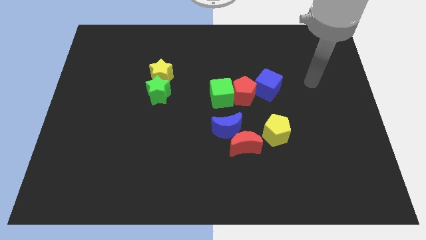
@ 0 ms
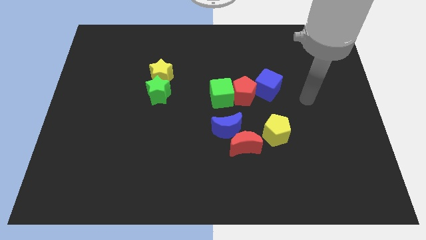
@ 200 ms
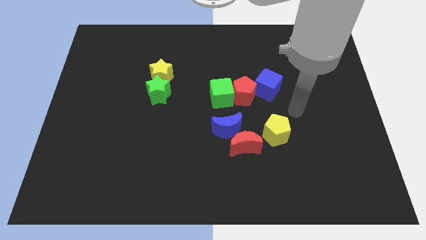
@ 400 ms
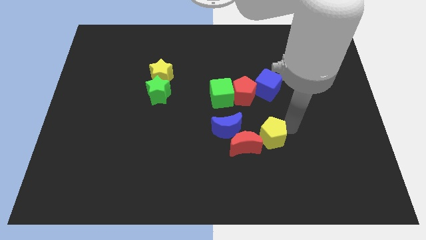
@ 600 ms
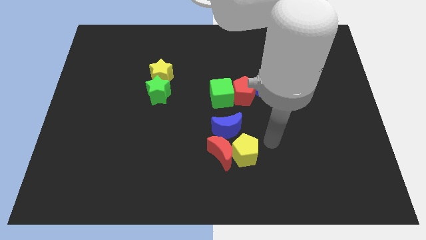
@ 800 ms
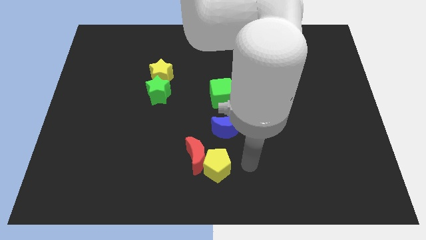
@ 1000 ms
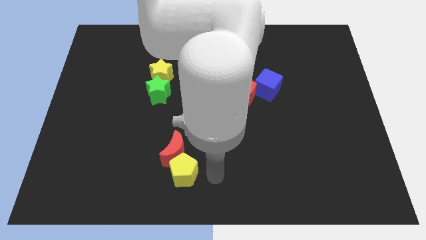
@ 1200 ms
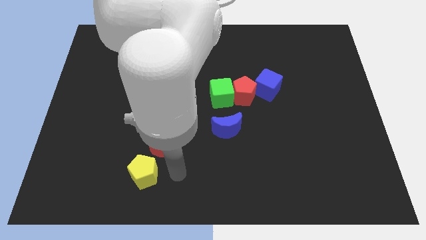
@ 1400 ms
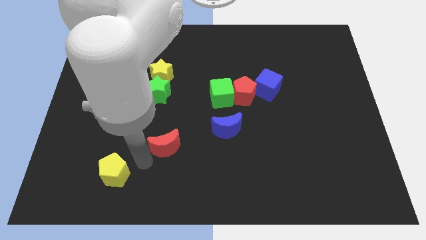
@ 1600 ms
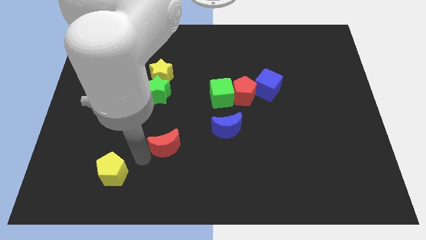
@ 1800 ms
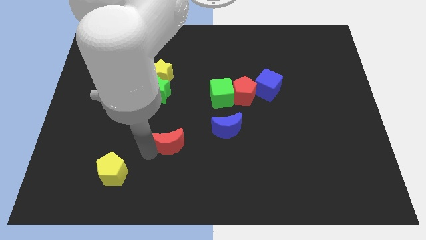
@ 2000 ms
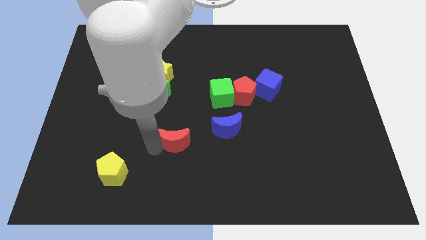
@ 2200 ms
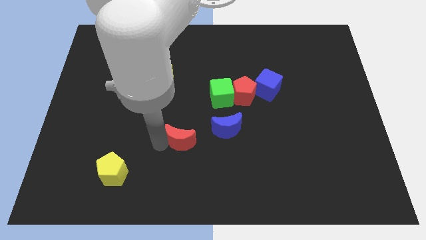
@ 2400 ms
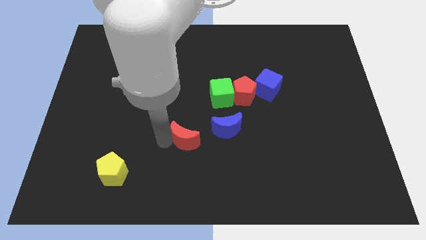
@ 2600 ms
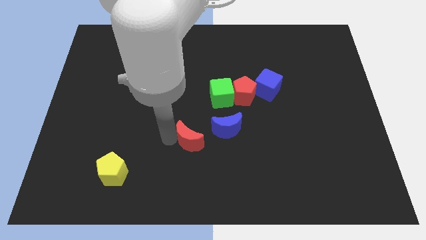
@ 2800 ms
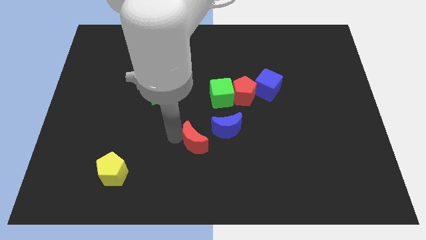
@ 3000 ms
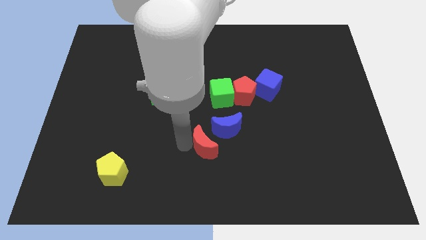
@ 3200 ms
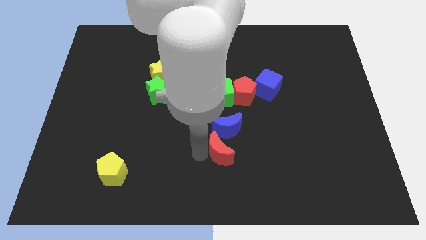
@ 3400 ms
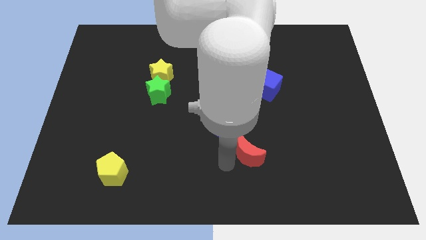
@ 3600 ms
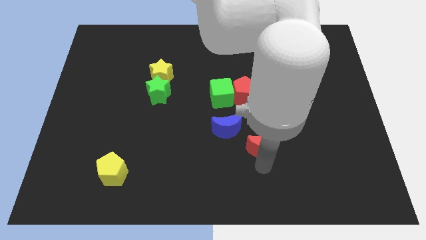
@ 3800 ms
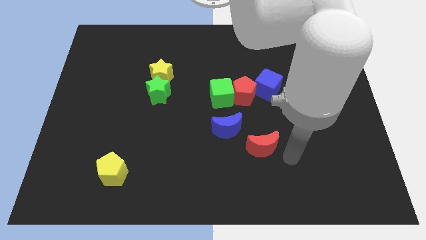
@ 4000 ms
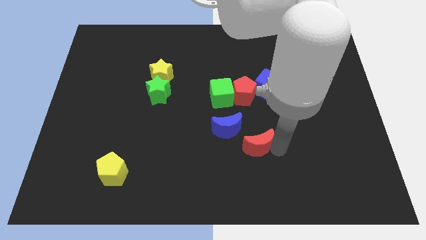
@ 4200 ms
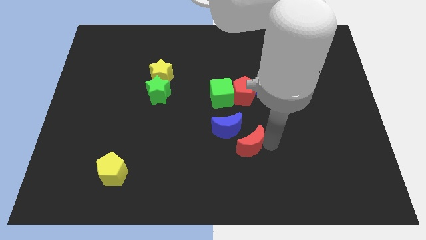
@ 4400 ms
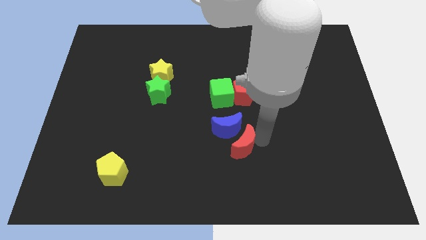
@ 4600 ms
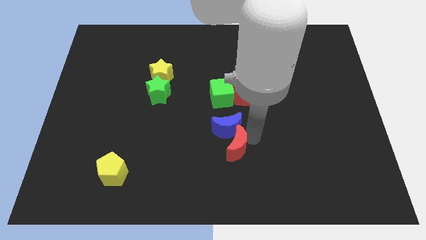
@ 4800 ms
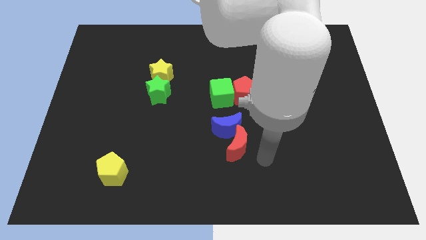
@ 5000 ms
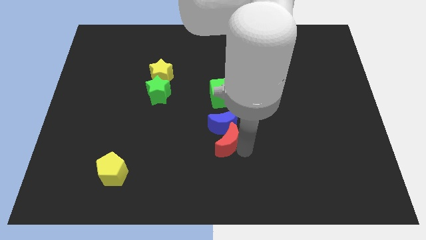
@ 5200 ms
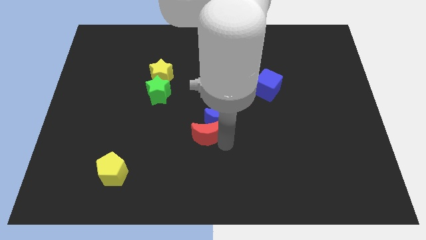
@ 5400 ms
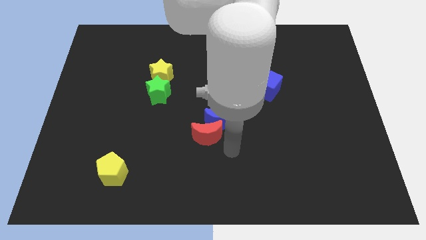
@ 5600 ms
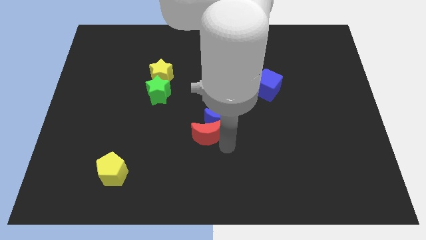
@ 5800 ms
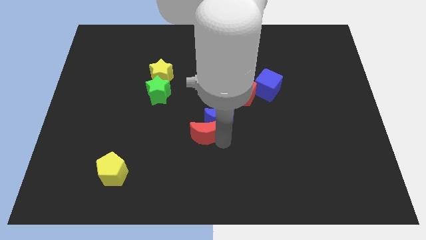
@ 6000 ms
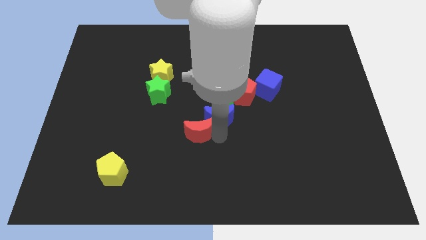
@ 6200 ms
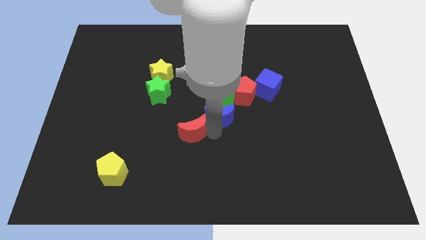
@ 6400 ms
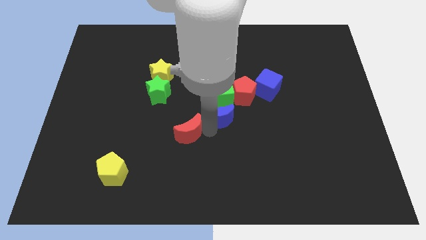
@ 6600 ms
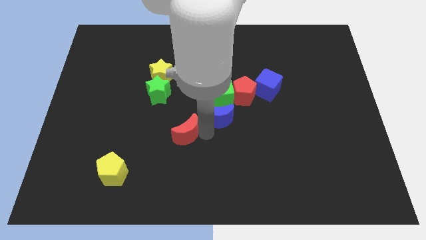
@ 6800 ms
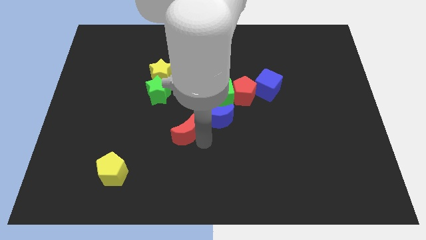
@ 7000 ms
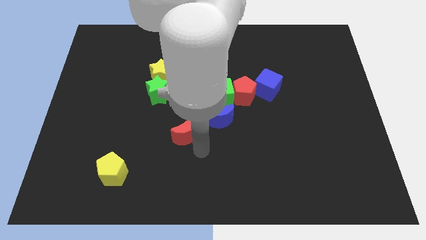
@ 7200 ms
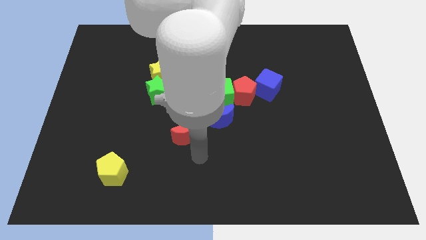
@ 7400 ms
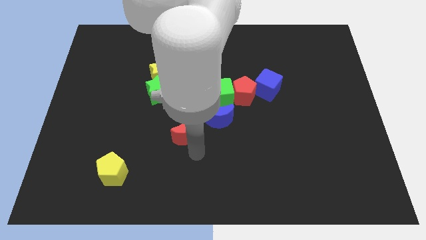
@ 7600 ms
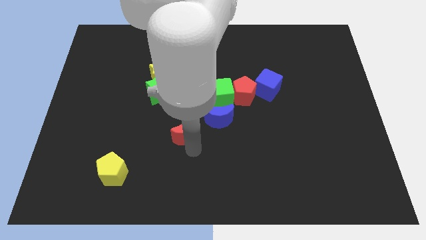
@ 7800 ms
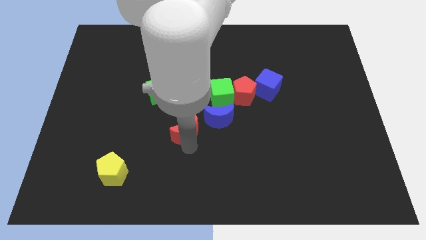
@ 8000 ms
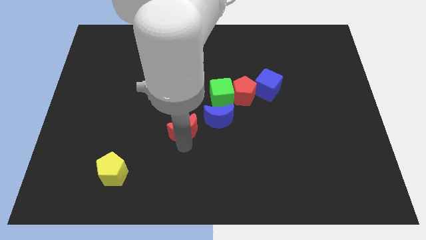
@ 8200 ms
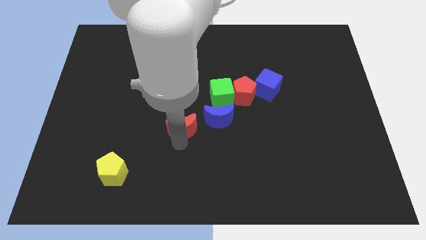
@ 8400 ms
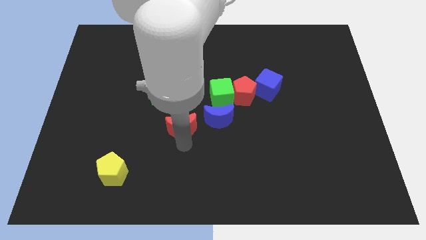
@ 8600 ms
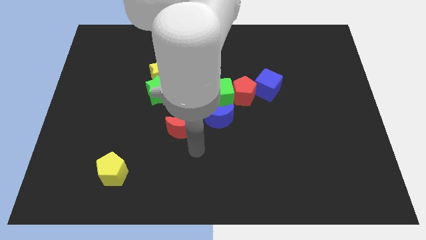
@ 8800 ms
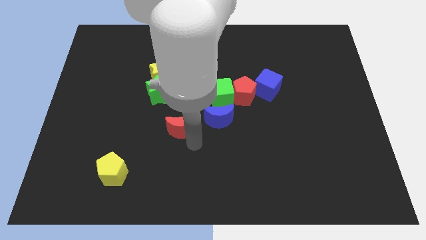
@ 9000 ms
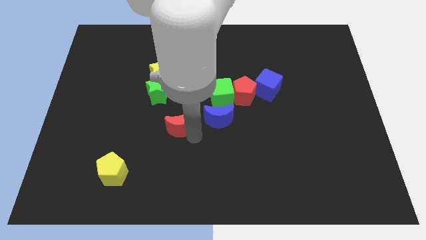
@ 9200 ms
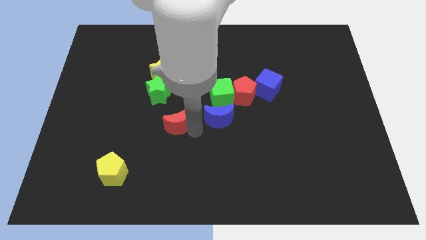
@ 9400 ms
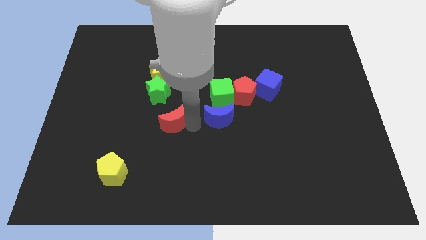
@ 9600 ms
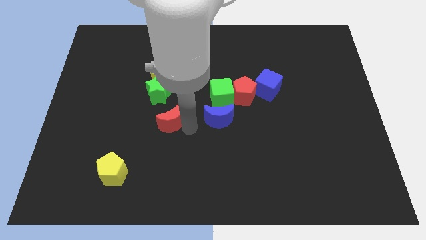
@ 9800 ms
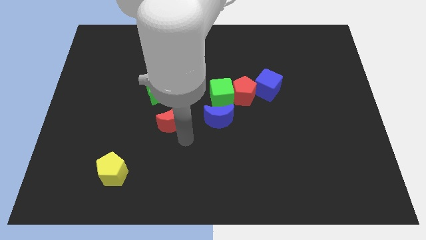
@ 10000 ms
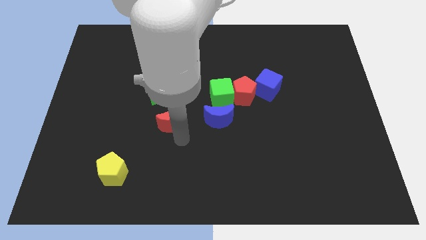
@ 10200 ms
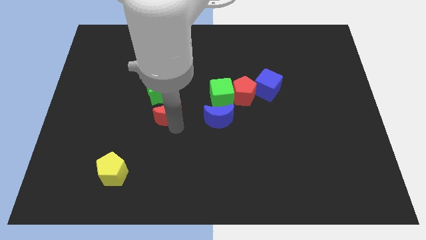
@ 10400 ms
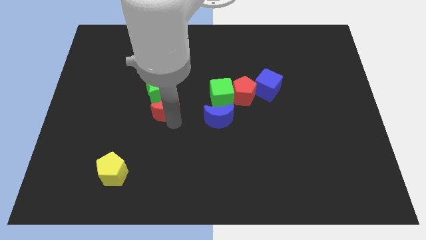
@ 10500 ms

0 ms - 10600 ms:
move the red moon towards the green star

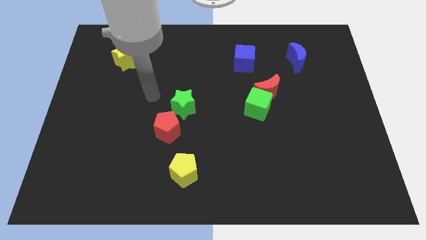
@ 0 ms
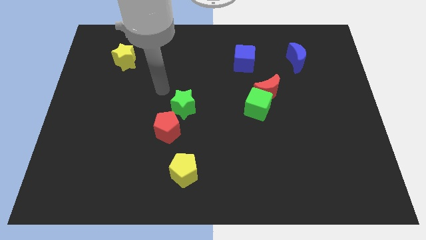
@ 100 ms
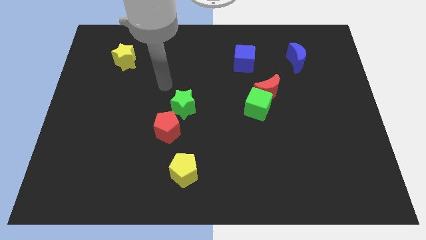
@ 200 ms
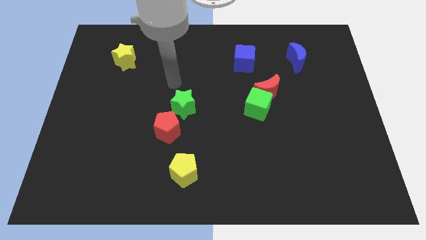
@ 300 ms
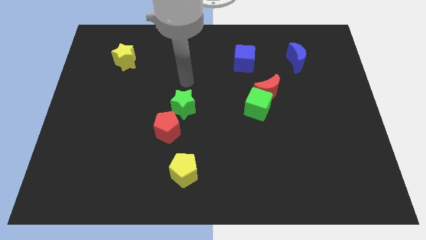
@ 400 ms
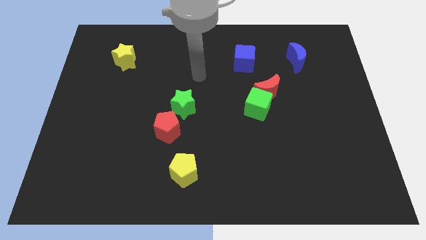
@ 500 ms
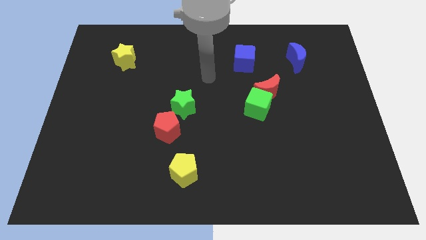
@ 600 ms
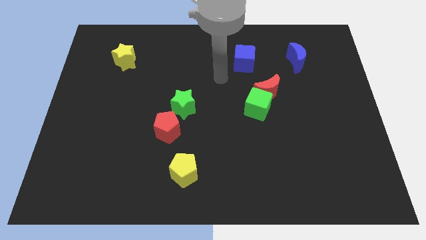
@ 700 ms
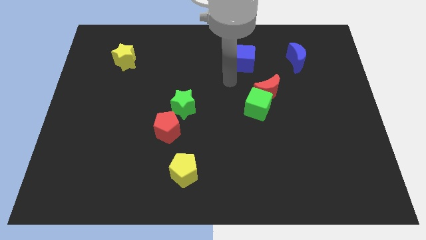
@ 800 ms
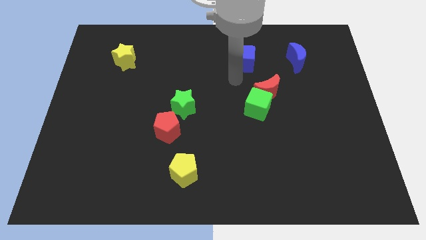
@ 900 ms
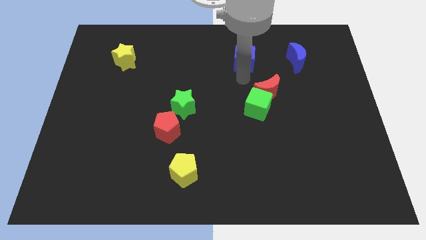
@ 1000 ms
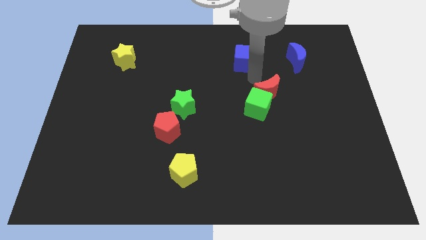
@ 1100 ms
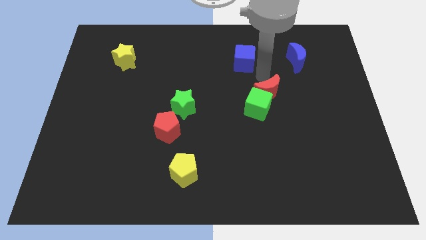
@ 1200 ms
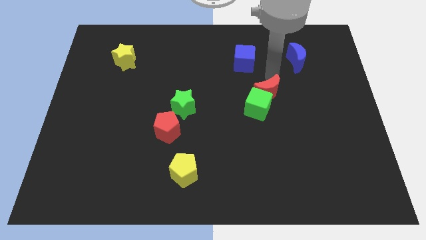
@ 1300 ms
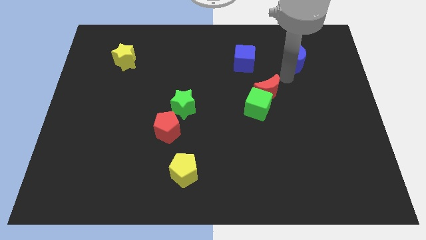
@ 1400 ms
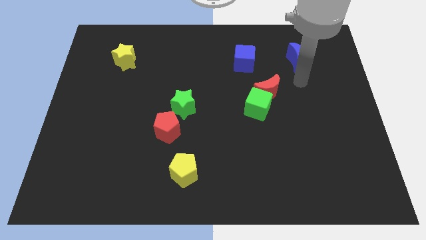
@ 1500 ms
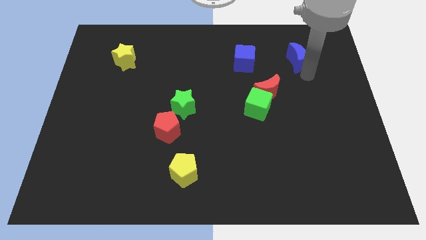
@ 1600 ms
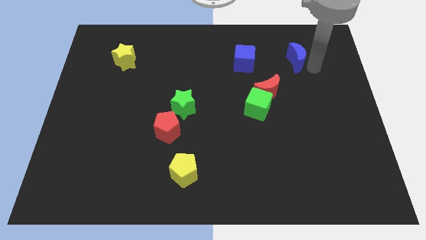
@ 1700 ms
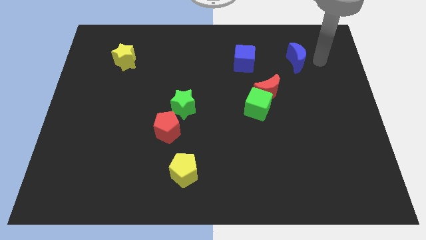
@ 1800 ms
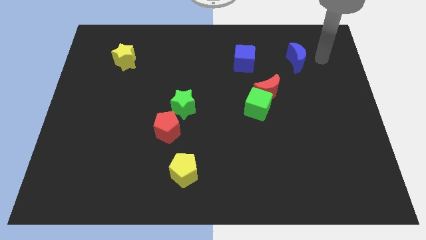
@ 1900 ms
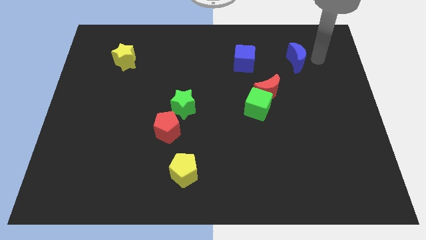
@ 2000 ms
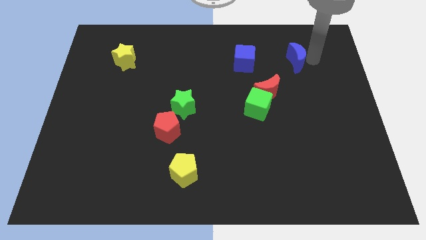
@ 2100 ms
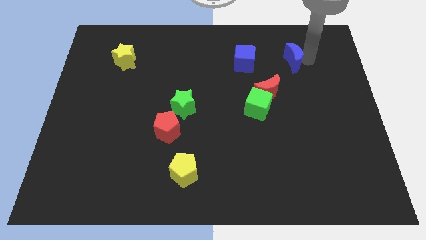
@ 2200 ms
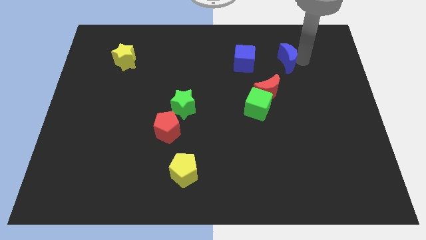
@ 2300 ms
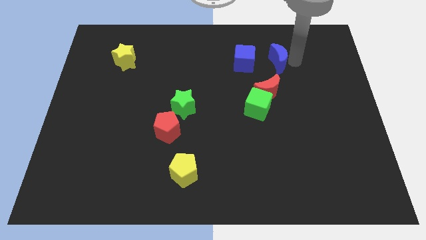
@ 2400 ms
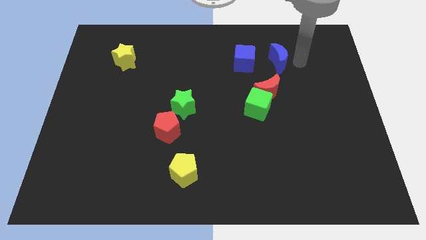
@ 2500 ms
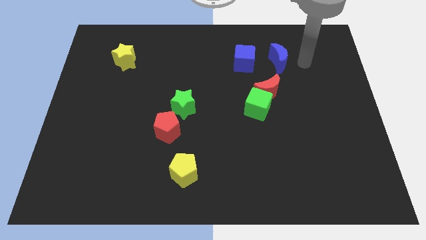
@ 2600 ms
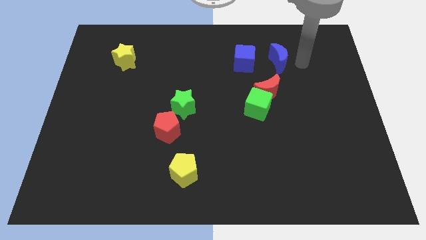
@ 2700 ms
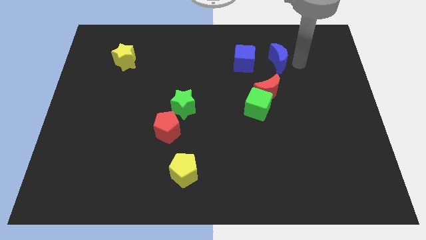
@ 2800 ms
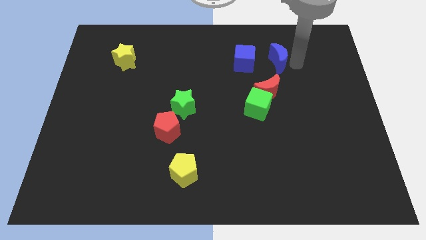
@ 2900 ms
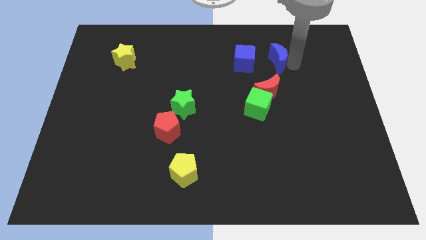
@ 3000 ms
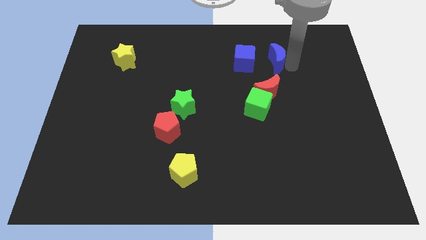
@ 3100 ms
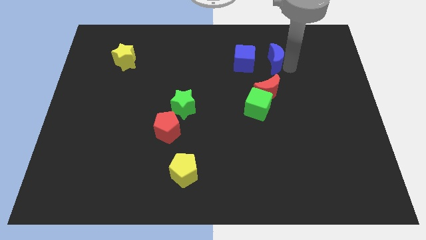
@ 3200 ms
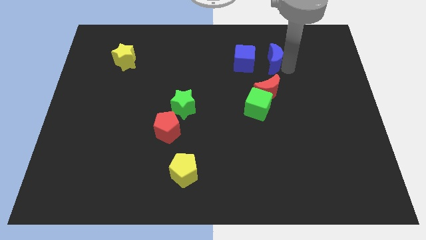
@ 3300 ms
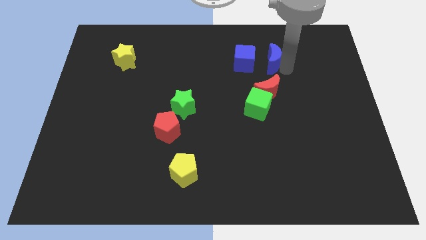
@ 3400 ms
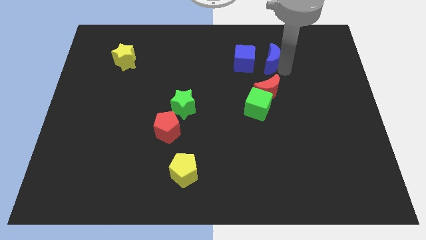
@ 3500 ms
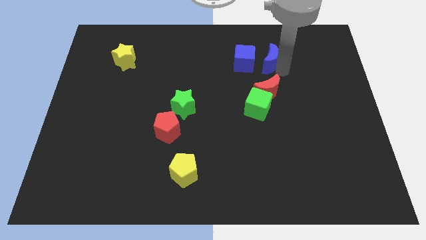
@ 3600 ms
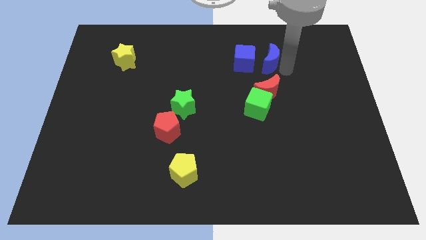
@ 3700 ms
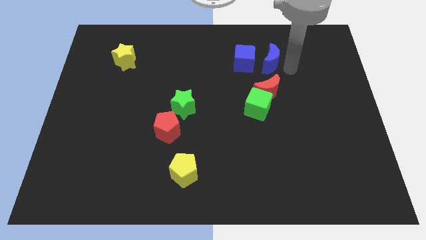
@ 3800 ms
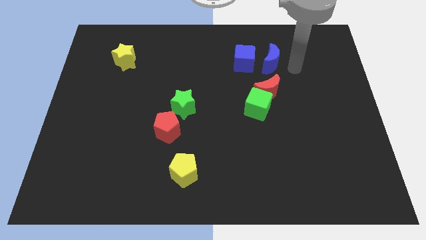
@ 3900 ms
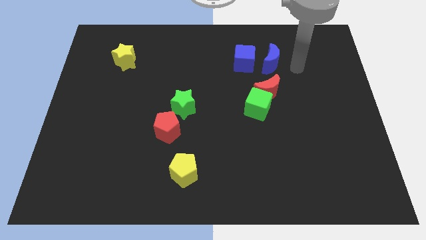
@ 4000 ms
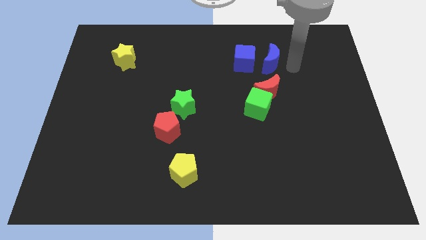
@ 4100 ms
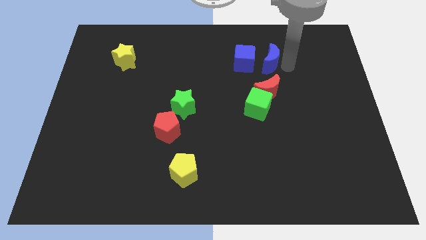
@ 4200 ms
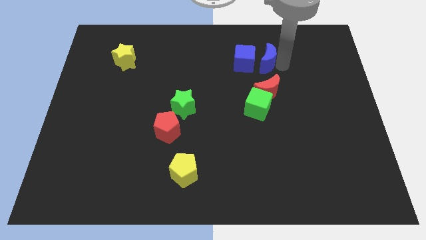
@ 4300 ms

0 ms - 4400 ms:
put the blue moon close to the blue cube
